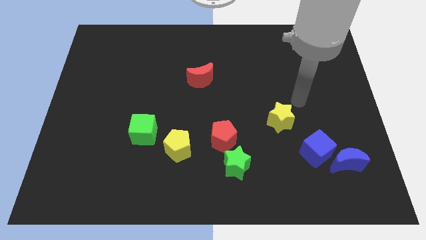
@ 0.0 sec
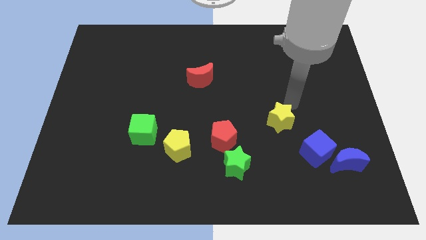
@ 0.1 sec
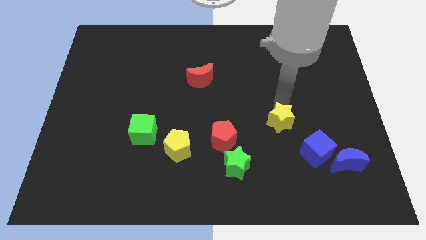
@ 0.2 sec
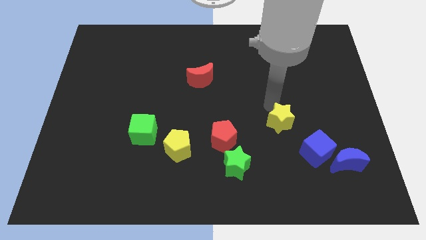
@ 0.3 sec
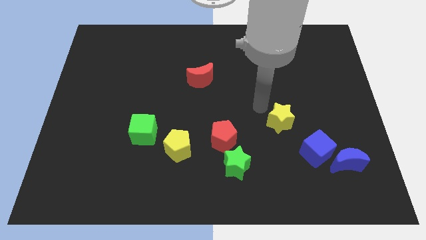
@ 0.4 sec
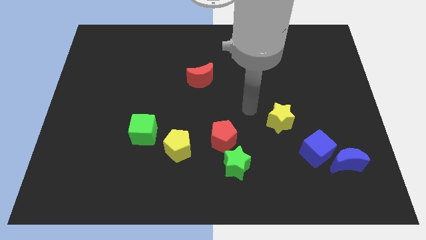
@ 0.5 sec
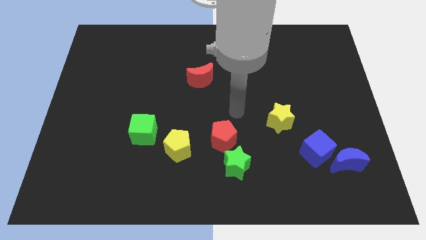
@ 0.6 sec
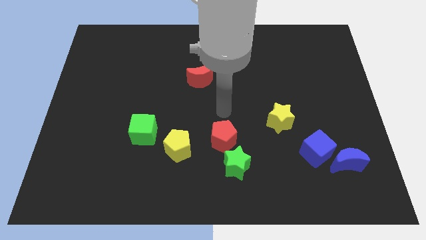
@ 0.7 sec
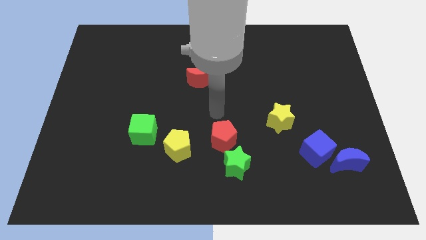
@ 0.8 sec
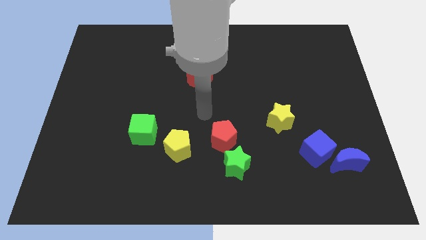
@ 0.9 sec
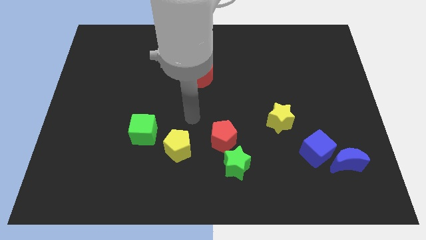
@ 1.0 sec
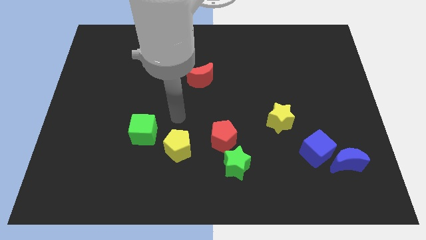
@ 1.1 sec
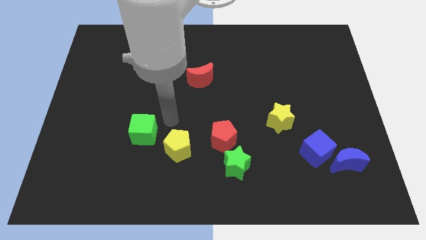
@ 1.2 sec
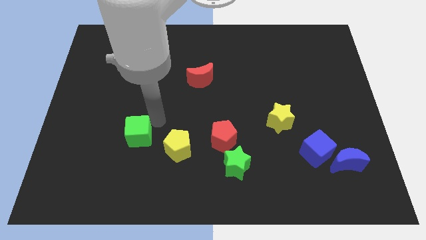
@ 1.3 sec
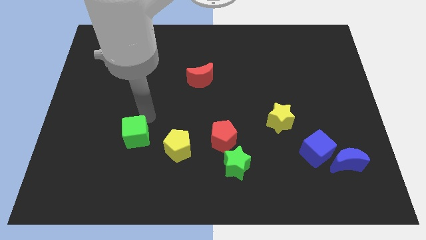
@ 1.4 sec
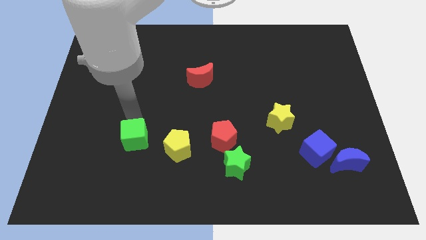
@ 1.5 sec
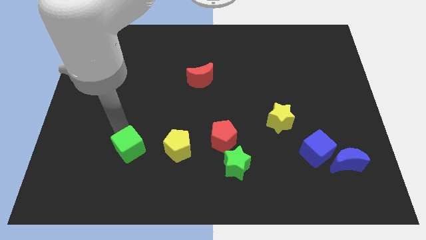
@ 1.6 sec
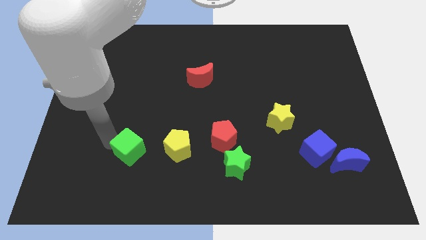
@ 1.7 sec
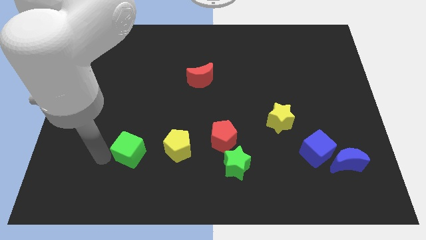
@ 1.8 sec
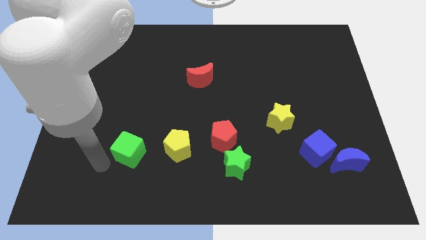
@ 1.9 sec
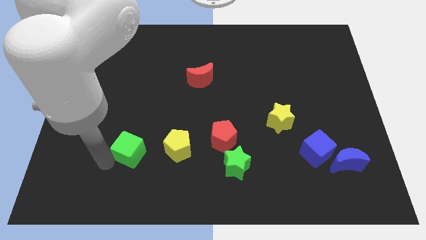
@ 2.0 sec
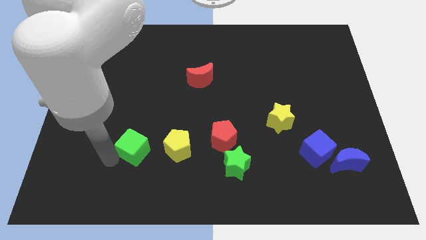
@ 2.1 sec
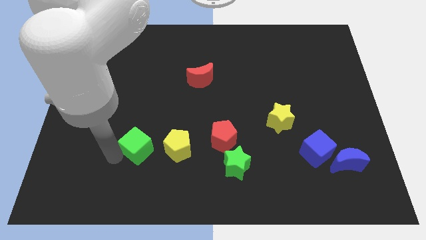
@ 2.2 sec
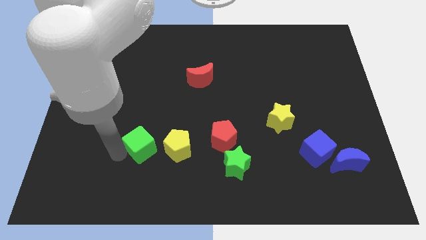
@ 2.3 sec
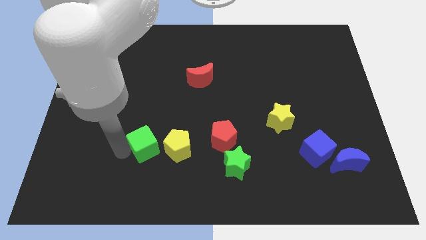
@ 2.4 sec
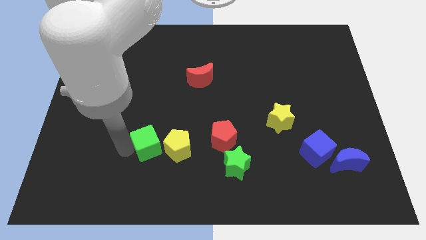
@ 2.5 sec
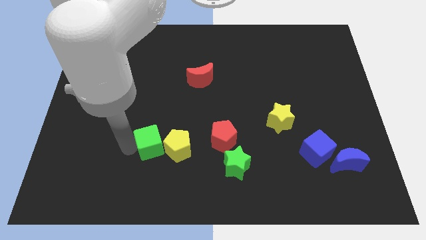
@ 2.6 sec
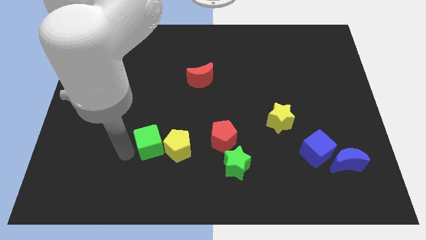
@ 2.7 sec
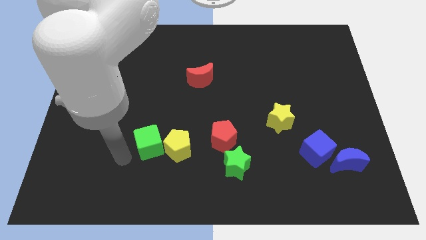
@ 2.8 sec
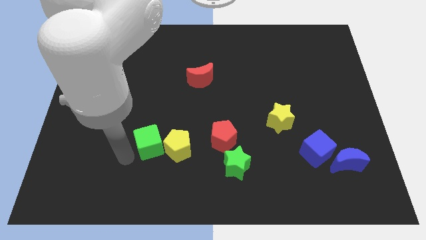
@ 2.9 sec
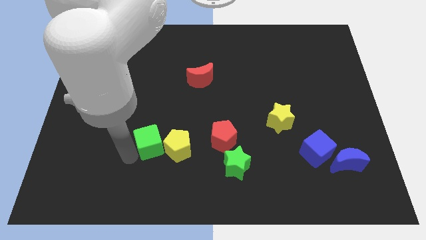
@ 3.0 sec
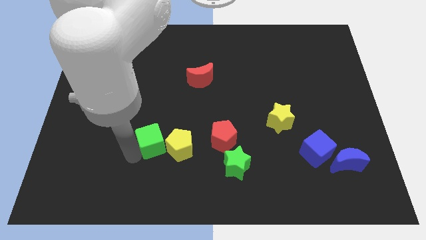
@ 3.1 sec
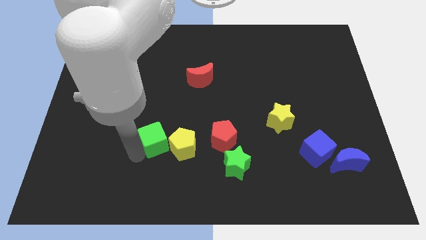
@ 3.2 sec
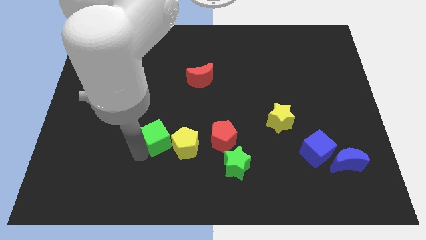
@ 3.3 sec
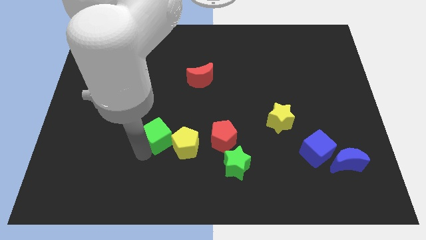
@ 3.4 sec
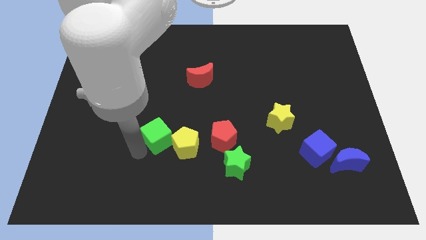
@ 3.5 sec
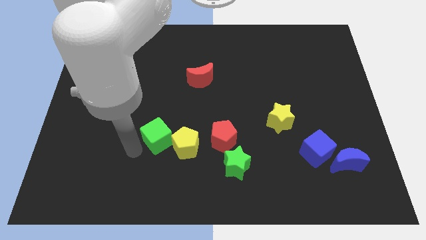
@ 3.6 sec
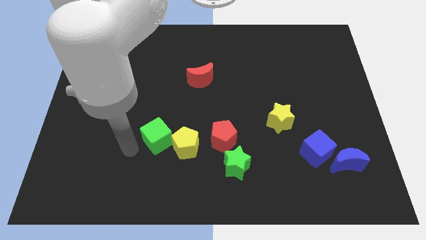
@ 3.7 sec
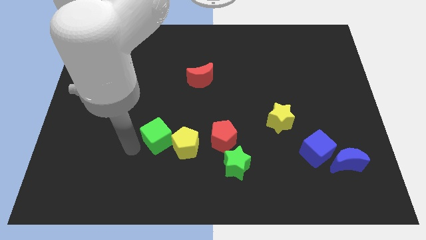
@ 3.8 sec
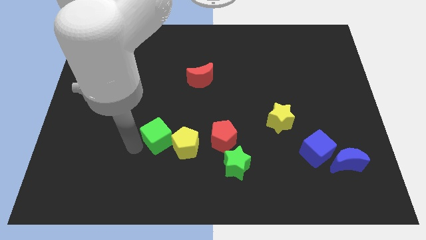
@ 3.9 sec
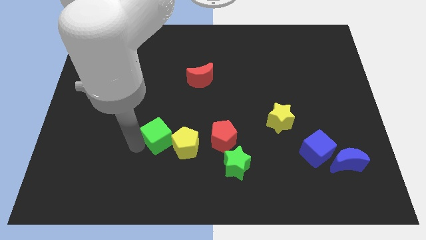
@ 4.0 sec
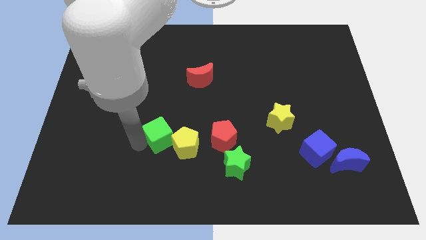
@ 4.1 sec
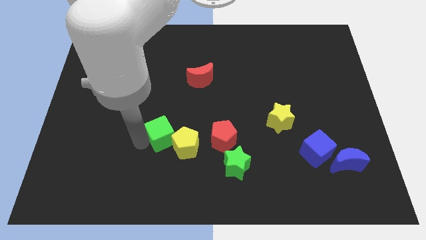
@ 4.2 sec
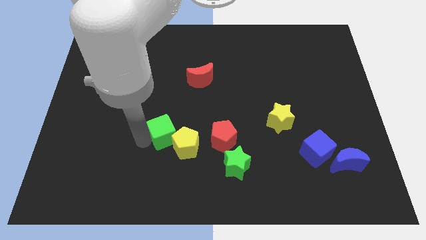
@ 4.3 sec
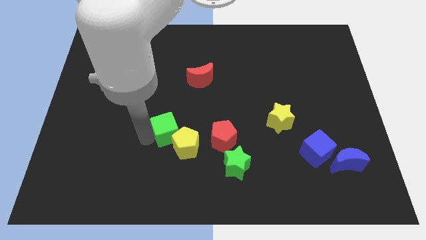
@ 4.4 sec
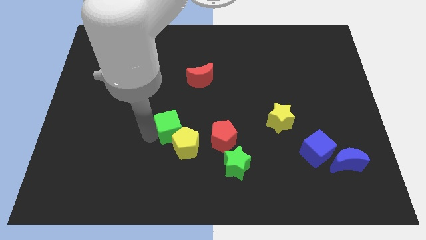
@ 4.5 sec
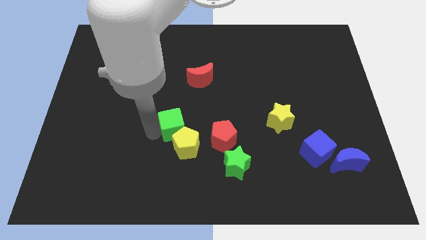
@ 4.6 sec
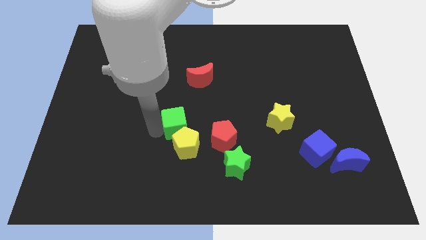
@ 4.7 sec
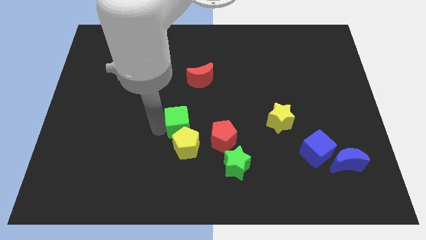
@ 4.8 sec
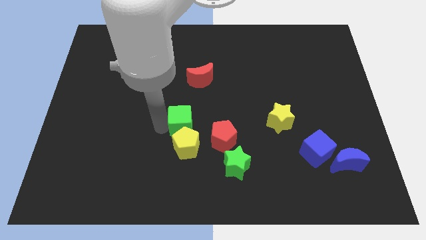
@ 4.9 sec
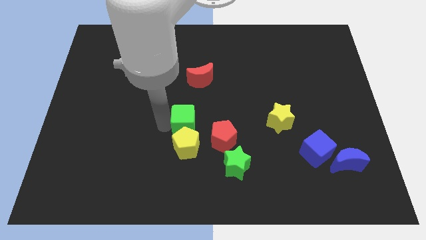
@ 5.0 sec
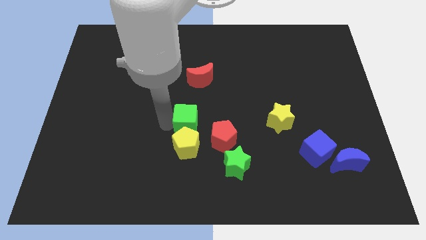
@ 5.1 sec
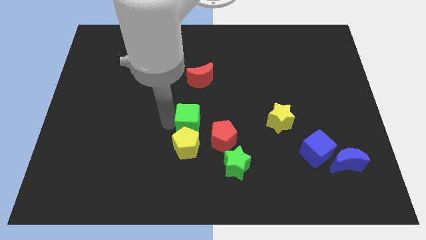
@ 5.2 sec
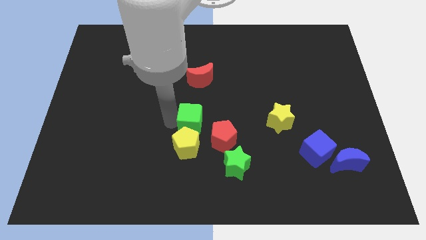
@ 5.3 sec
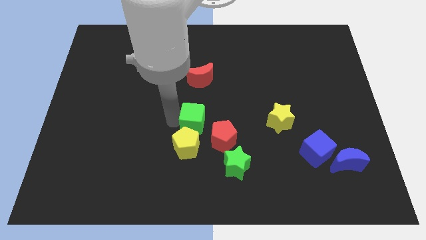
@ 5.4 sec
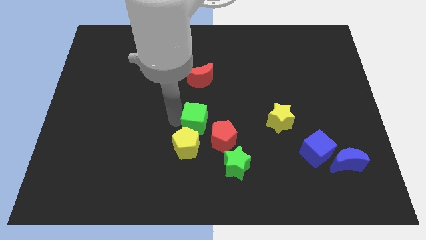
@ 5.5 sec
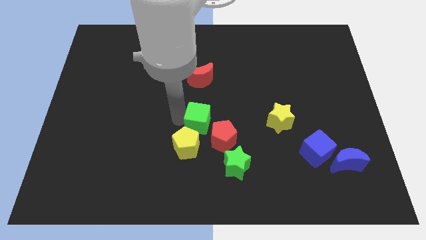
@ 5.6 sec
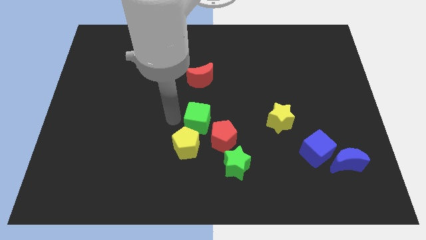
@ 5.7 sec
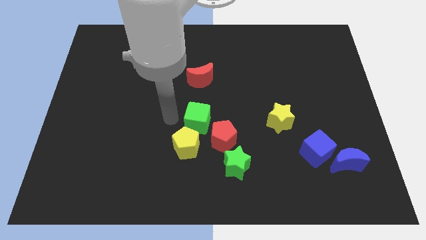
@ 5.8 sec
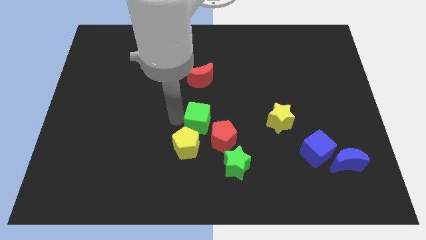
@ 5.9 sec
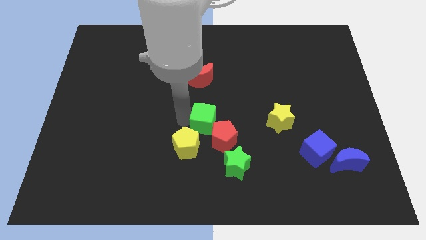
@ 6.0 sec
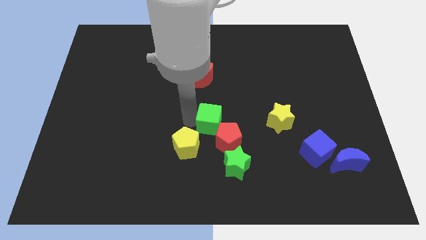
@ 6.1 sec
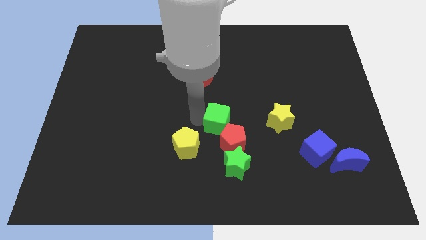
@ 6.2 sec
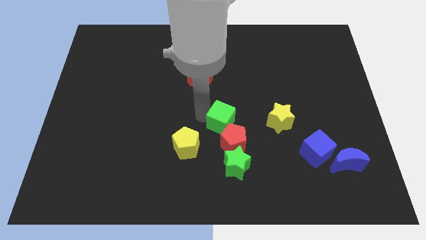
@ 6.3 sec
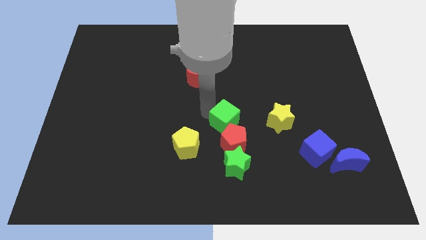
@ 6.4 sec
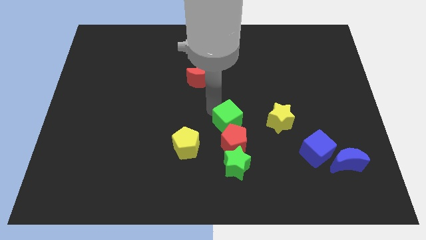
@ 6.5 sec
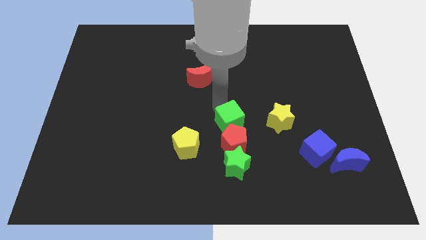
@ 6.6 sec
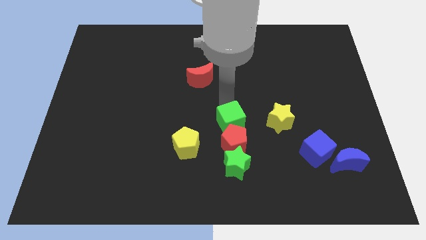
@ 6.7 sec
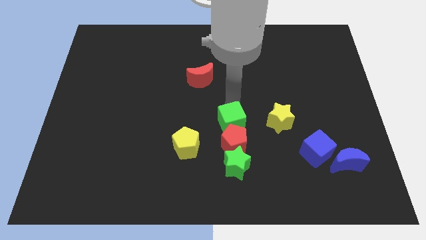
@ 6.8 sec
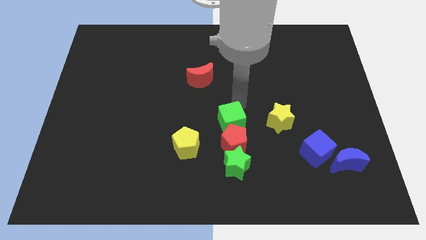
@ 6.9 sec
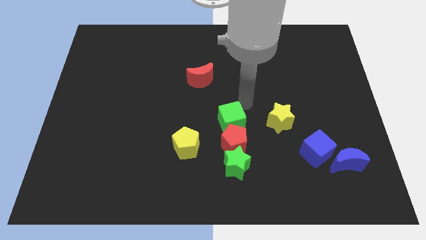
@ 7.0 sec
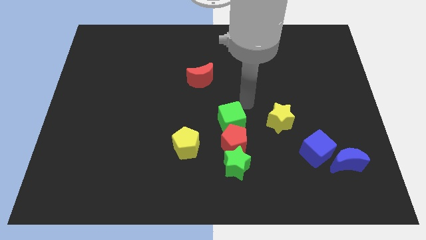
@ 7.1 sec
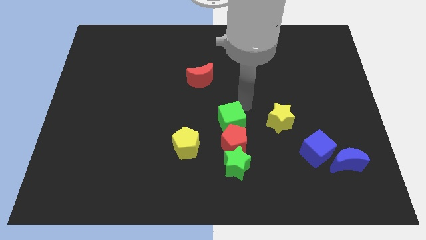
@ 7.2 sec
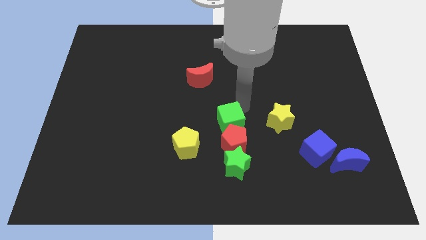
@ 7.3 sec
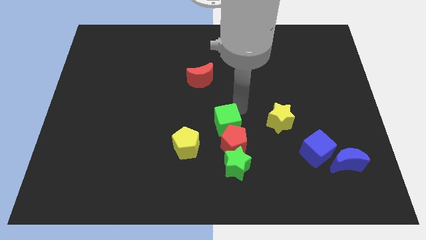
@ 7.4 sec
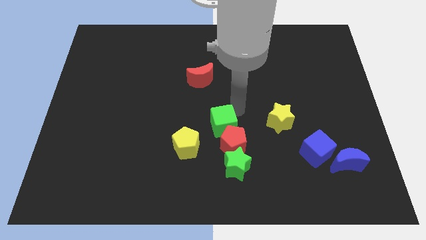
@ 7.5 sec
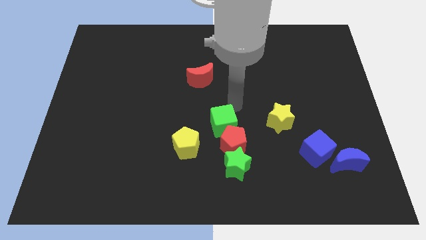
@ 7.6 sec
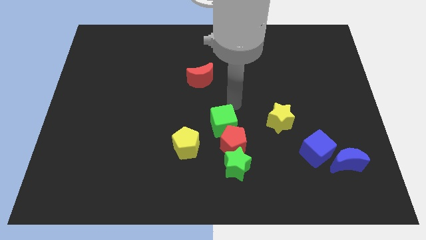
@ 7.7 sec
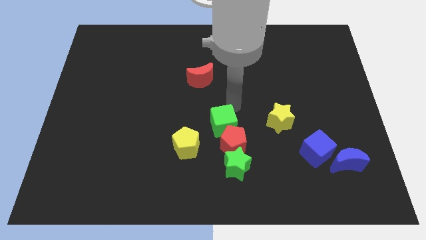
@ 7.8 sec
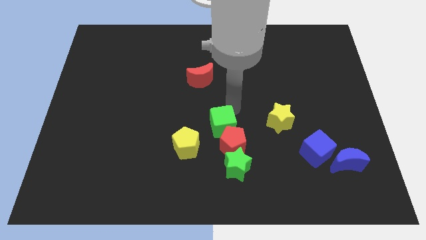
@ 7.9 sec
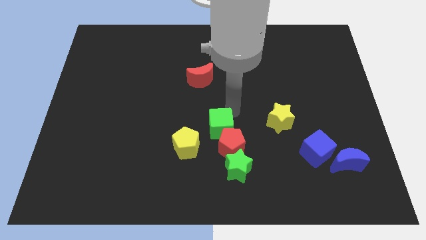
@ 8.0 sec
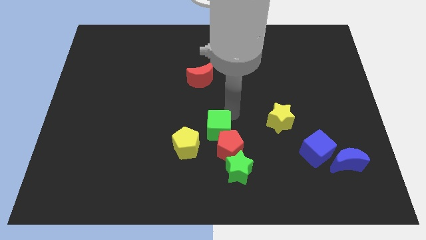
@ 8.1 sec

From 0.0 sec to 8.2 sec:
push the green cube diagonally up and to the left of the green star
